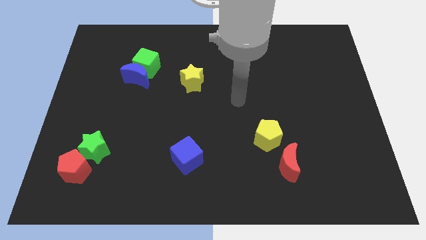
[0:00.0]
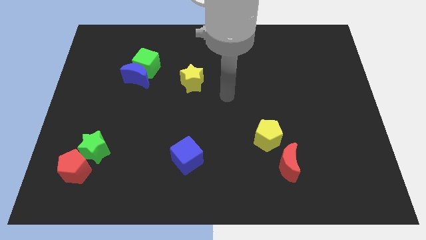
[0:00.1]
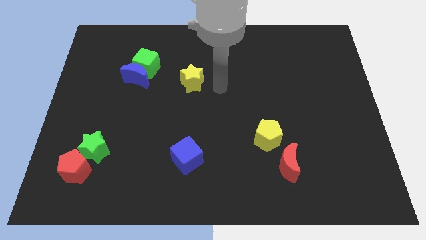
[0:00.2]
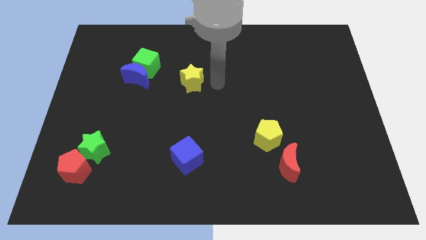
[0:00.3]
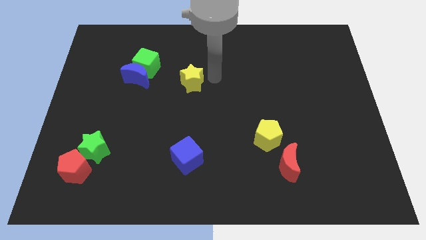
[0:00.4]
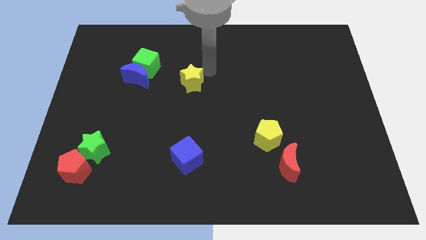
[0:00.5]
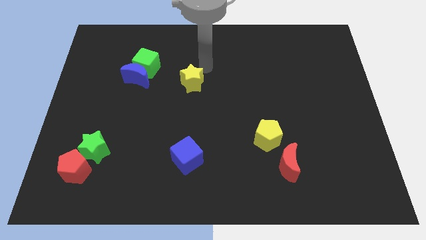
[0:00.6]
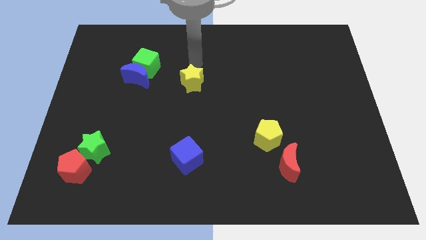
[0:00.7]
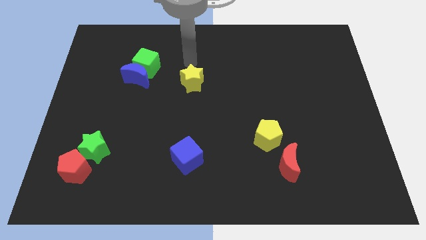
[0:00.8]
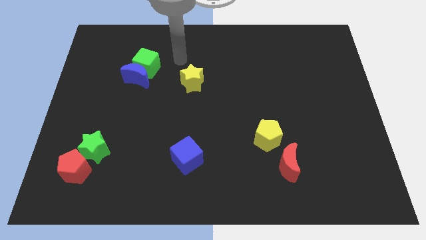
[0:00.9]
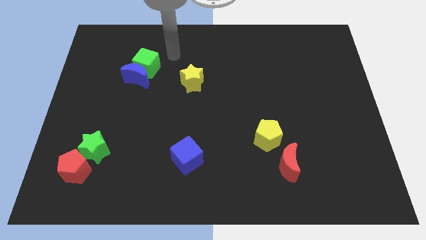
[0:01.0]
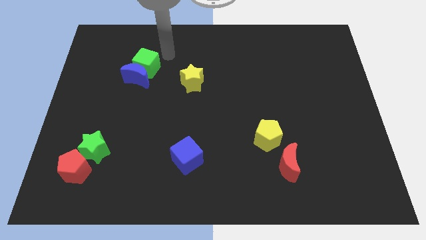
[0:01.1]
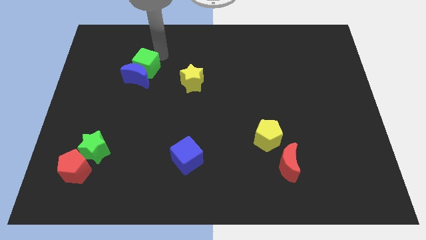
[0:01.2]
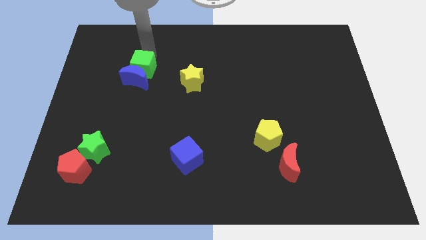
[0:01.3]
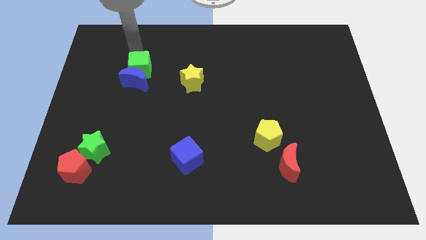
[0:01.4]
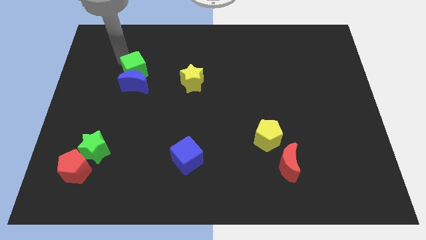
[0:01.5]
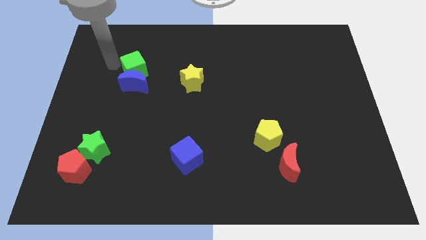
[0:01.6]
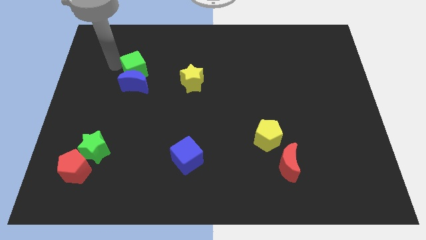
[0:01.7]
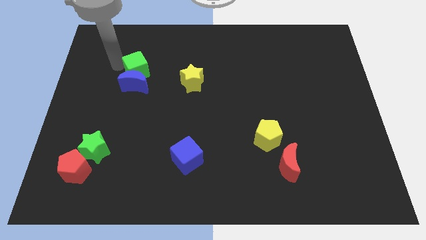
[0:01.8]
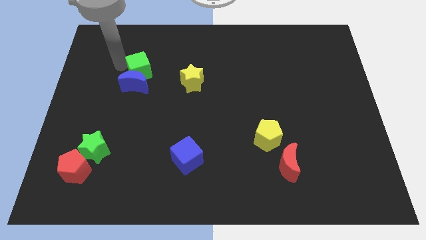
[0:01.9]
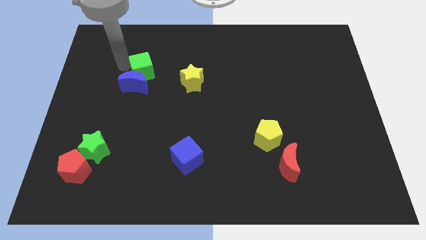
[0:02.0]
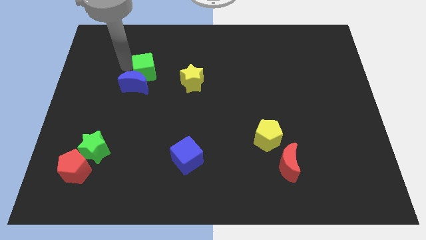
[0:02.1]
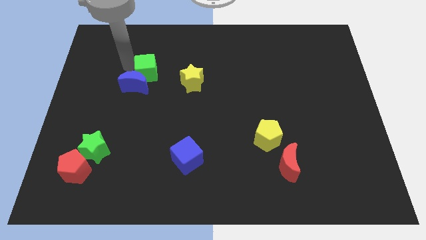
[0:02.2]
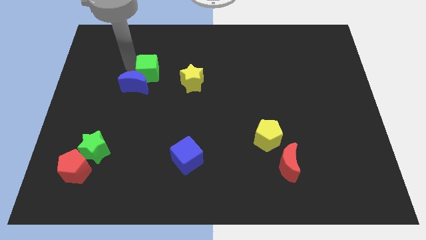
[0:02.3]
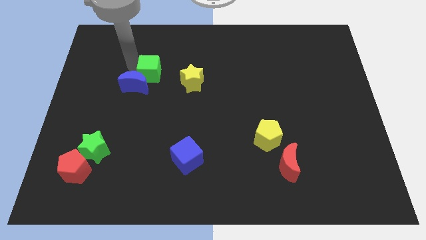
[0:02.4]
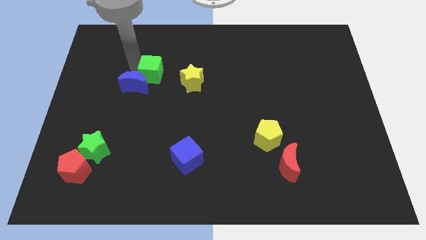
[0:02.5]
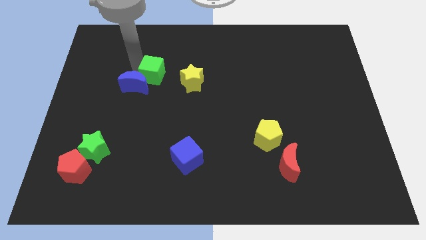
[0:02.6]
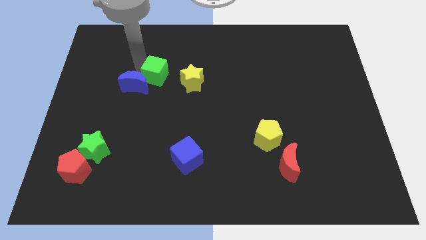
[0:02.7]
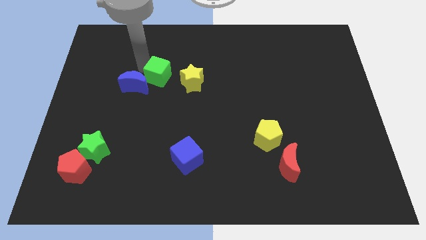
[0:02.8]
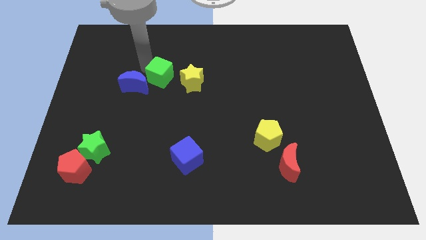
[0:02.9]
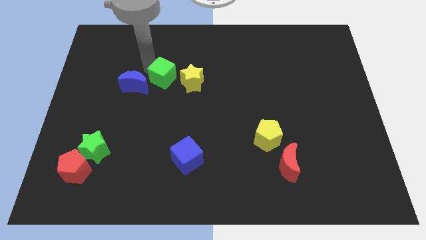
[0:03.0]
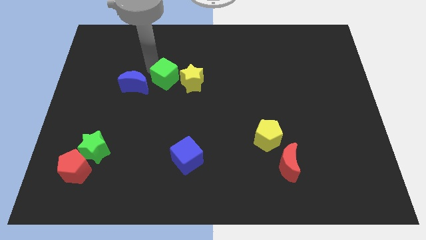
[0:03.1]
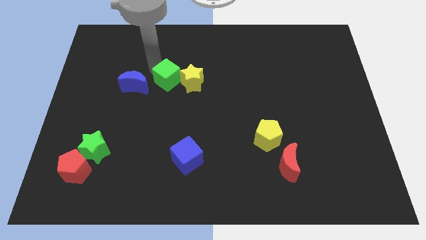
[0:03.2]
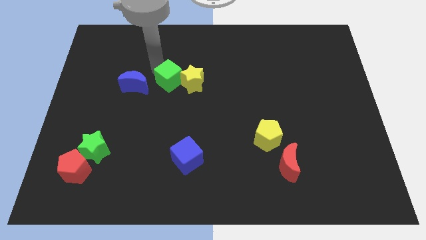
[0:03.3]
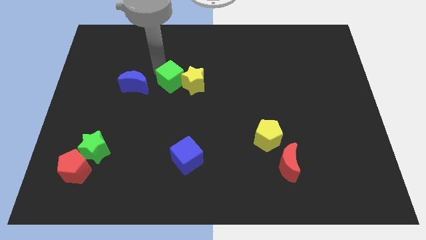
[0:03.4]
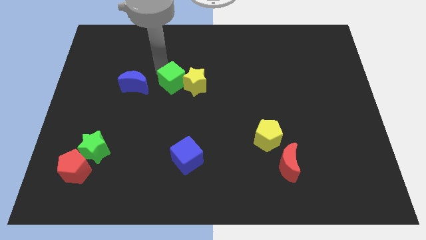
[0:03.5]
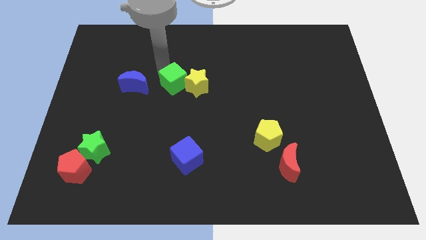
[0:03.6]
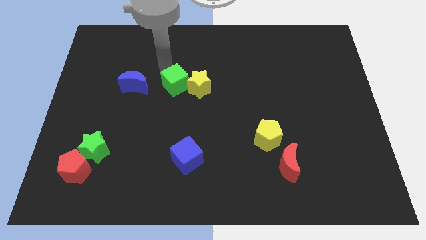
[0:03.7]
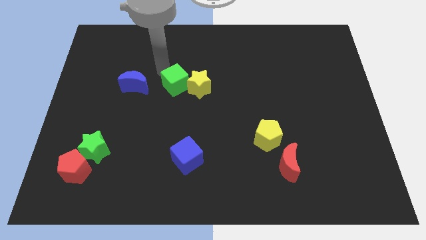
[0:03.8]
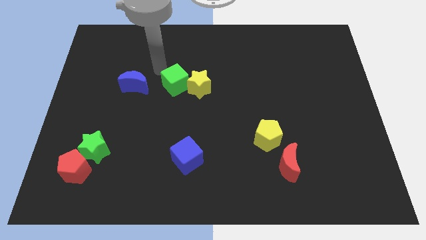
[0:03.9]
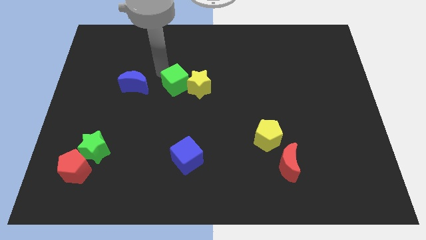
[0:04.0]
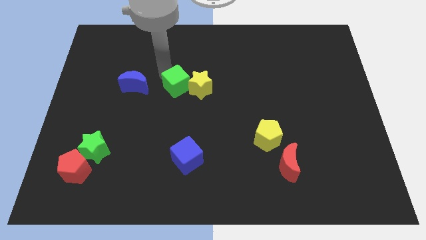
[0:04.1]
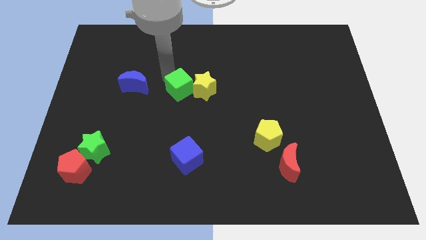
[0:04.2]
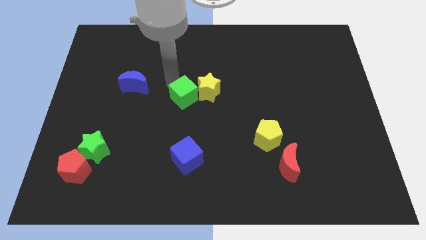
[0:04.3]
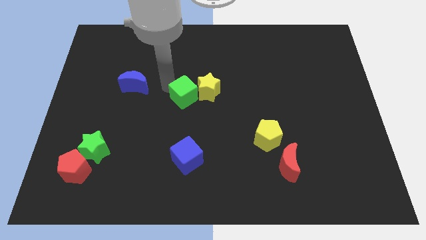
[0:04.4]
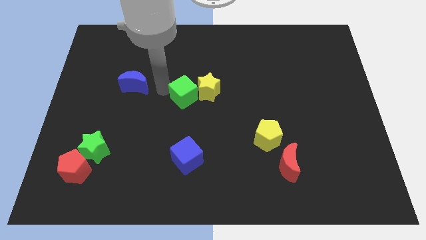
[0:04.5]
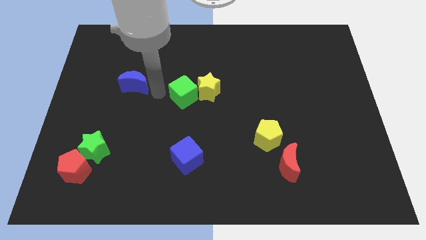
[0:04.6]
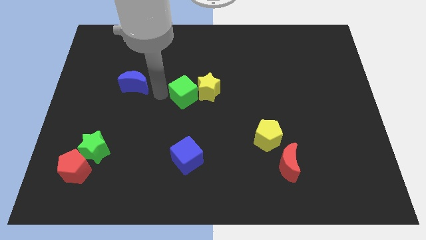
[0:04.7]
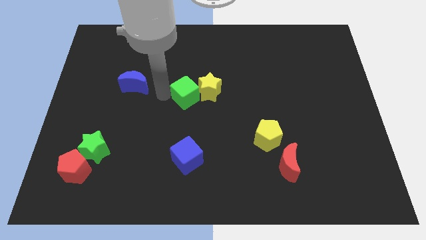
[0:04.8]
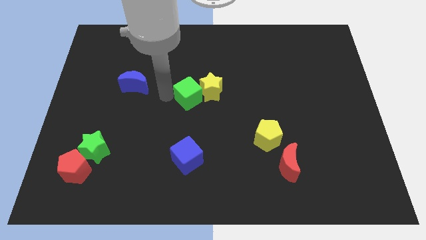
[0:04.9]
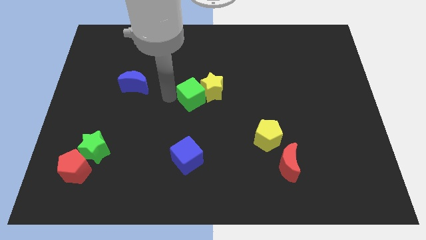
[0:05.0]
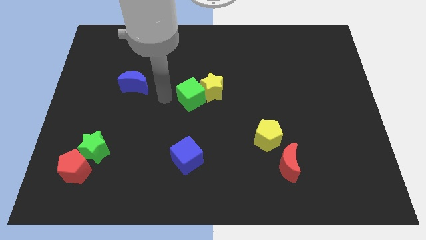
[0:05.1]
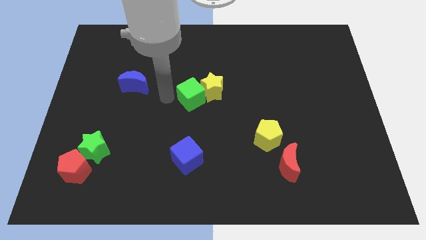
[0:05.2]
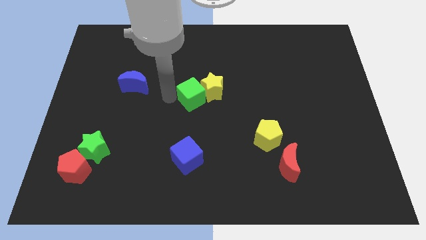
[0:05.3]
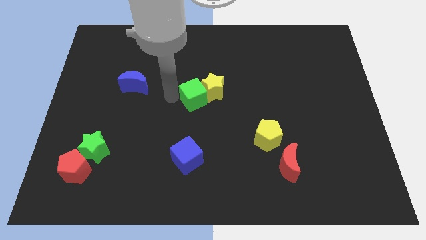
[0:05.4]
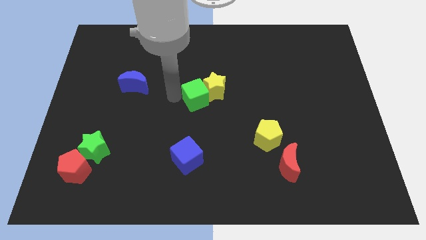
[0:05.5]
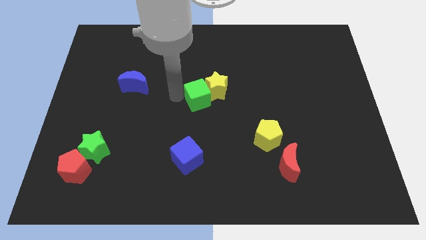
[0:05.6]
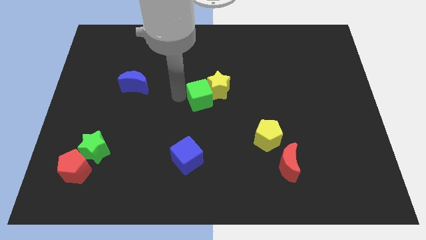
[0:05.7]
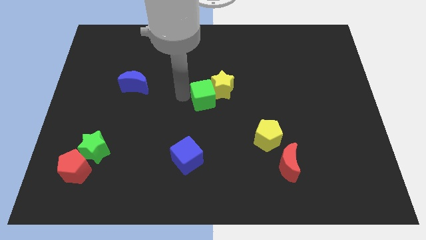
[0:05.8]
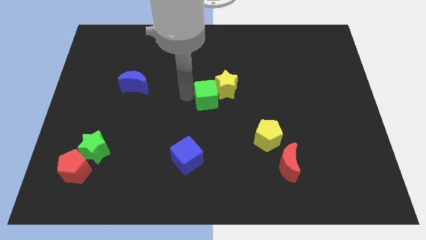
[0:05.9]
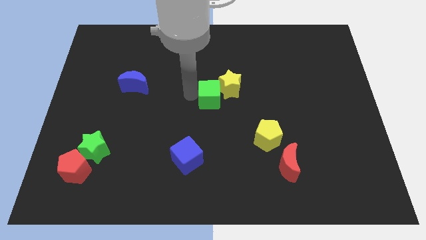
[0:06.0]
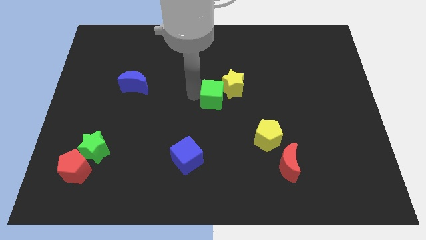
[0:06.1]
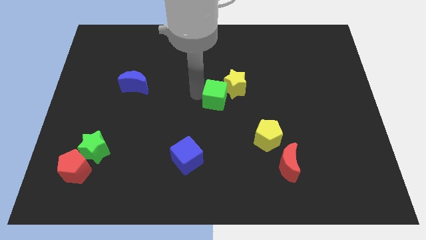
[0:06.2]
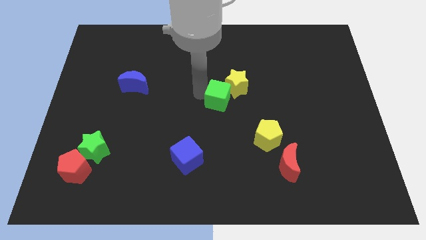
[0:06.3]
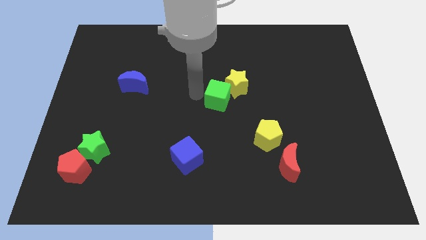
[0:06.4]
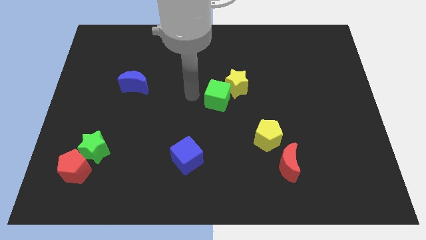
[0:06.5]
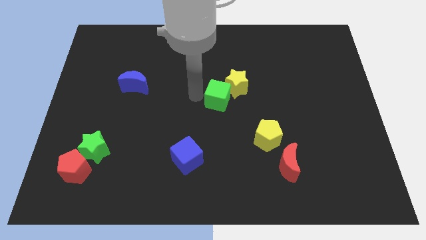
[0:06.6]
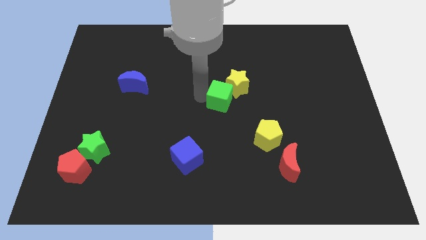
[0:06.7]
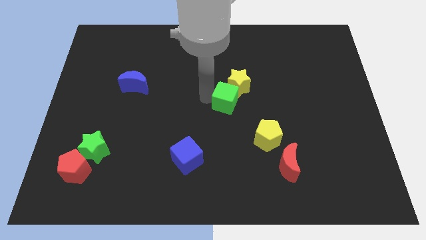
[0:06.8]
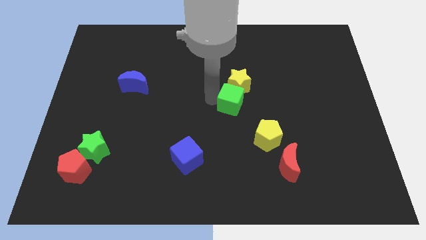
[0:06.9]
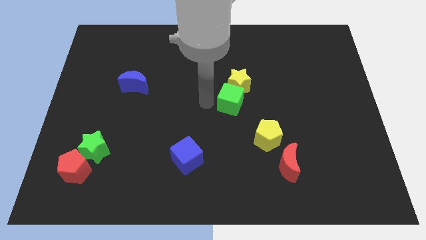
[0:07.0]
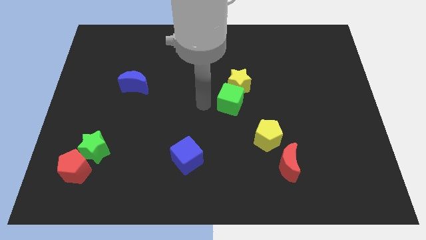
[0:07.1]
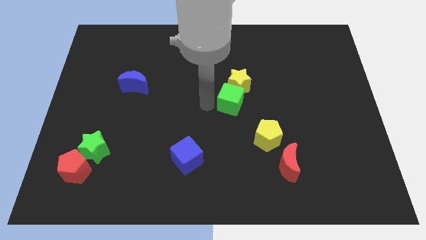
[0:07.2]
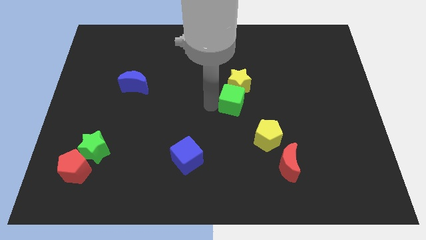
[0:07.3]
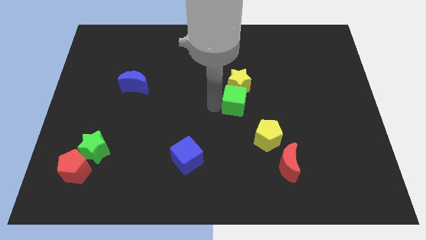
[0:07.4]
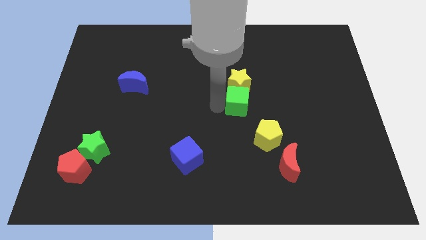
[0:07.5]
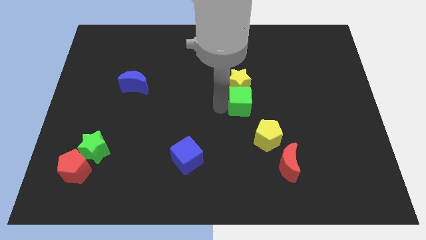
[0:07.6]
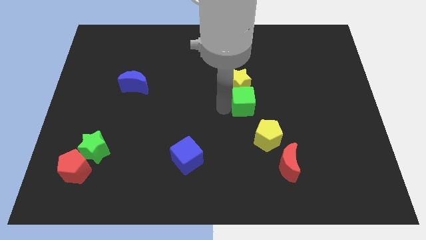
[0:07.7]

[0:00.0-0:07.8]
move the green cube to the top of the yellow pentagon

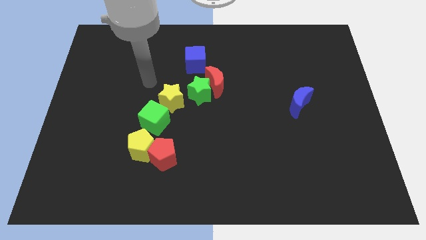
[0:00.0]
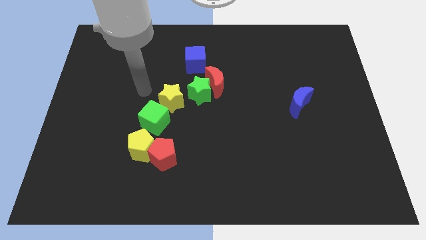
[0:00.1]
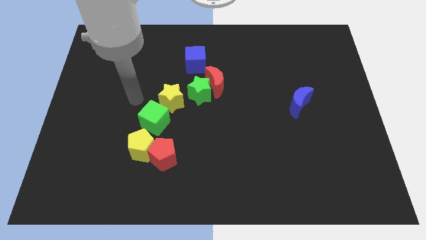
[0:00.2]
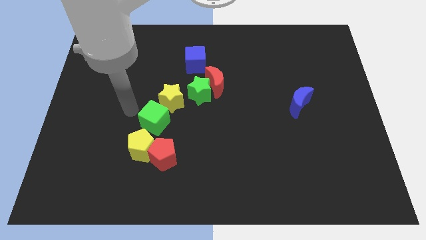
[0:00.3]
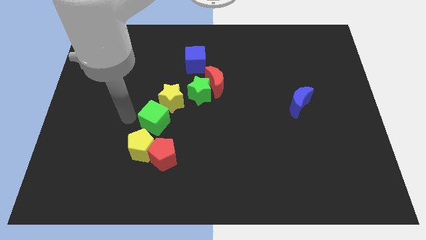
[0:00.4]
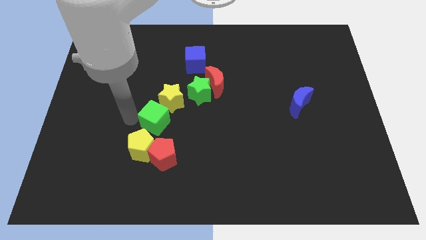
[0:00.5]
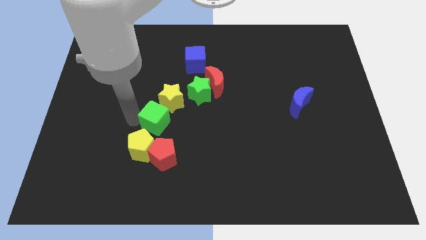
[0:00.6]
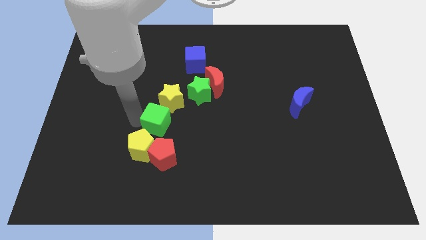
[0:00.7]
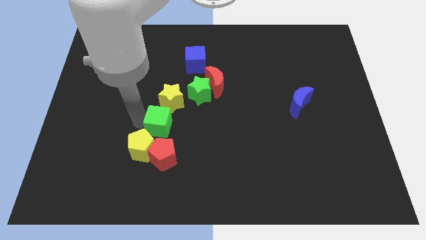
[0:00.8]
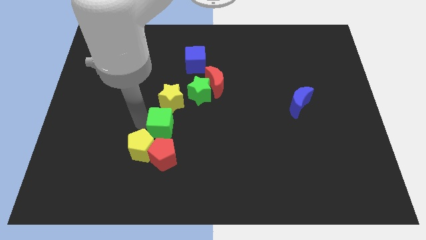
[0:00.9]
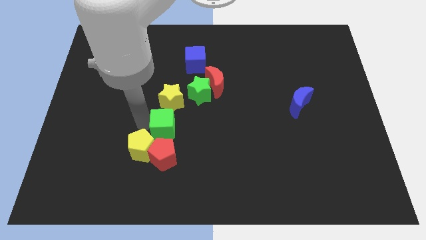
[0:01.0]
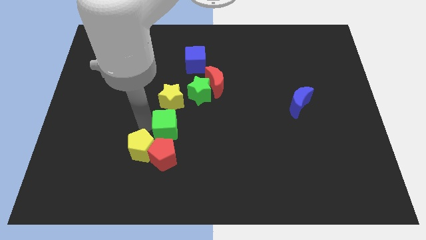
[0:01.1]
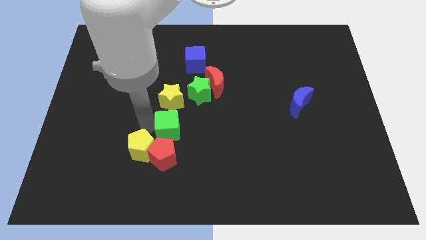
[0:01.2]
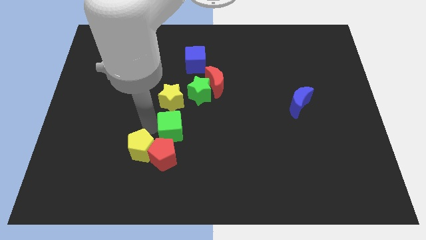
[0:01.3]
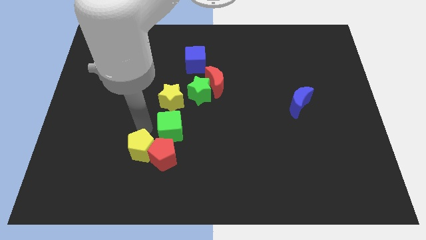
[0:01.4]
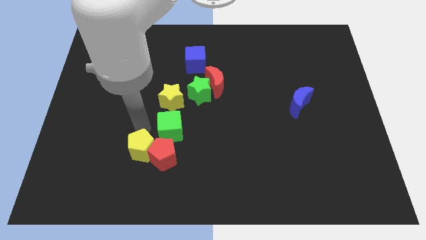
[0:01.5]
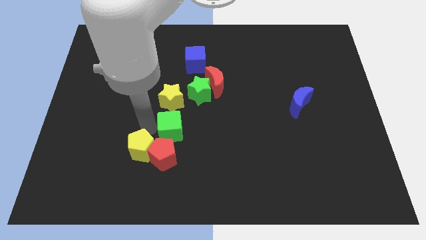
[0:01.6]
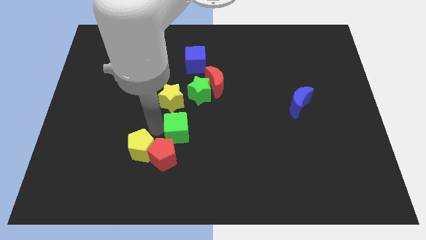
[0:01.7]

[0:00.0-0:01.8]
move the green cube below the green star
